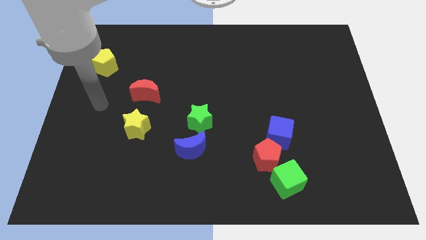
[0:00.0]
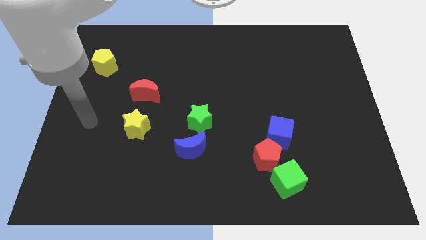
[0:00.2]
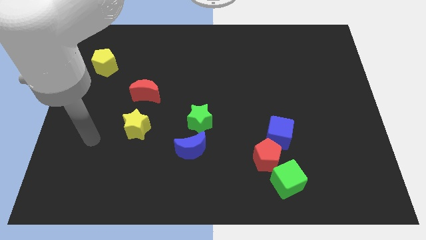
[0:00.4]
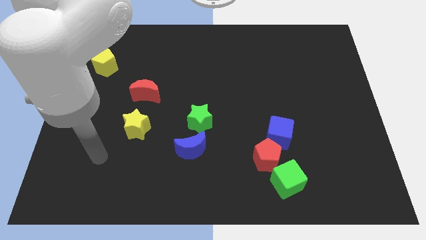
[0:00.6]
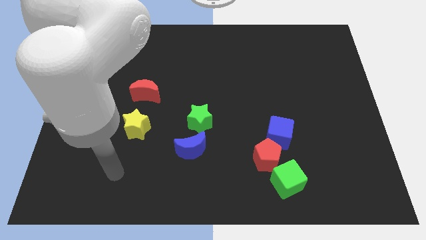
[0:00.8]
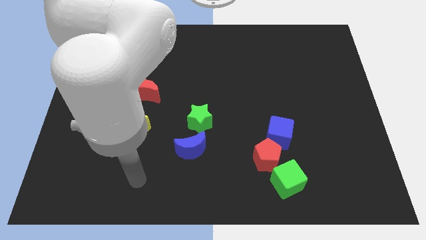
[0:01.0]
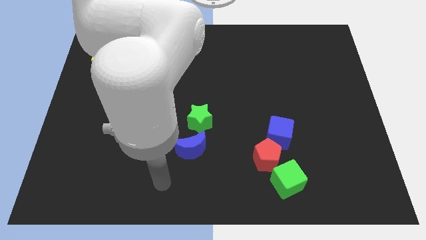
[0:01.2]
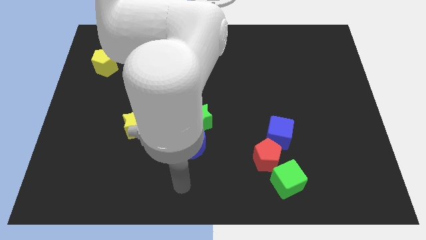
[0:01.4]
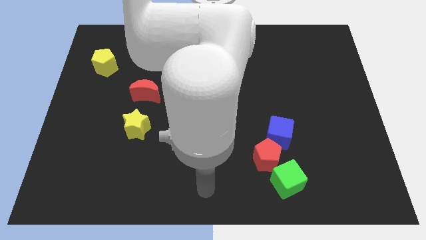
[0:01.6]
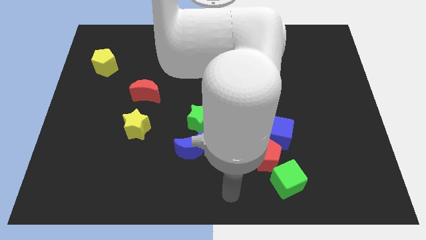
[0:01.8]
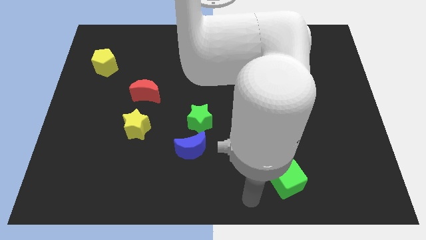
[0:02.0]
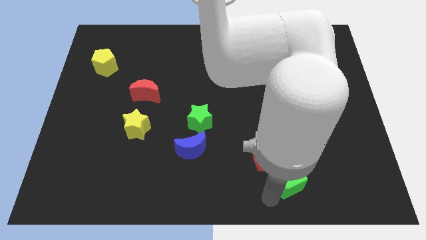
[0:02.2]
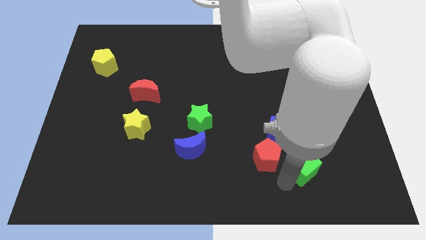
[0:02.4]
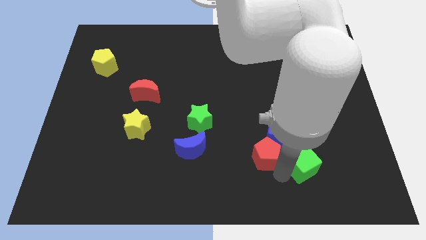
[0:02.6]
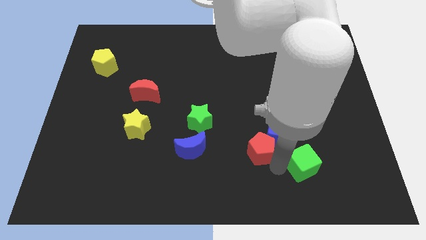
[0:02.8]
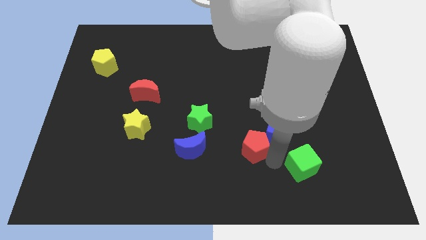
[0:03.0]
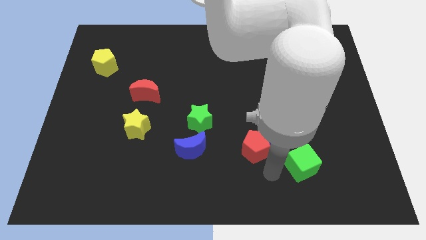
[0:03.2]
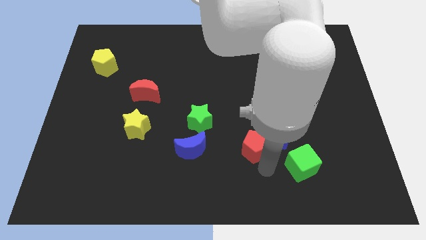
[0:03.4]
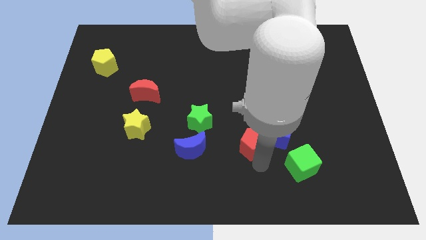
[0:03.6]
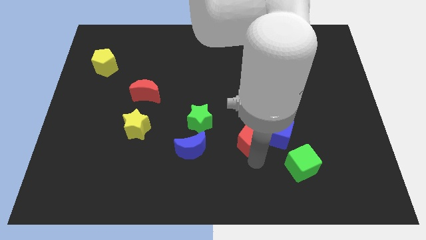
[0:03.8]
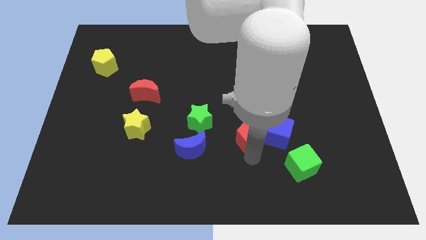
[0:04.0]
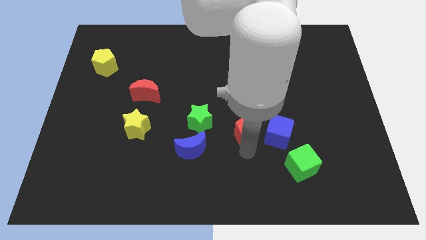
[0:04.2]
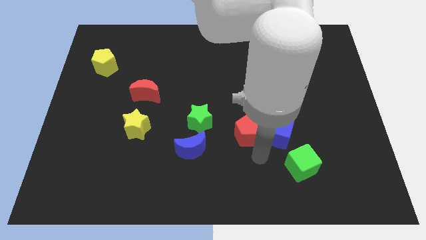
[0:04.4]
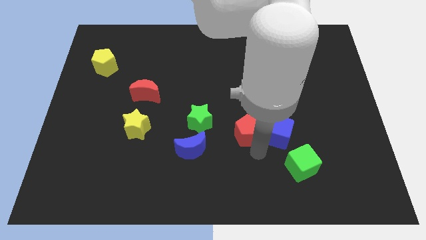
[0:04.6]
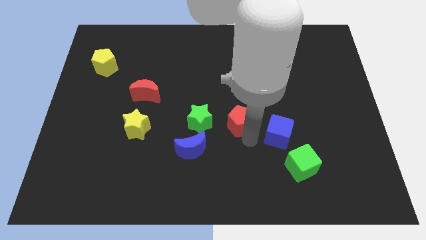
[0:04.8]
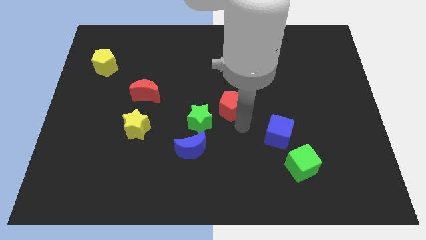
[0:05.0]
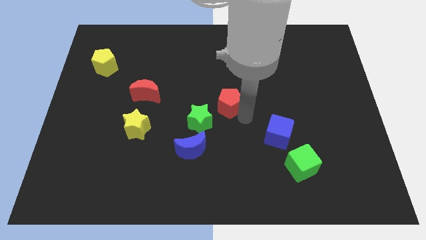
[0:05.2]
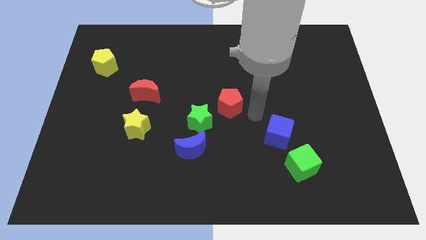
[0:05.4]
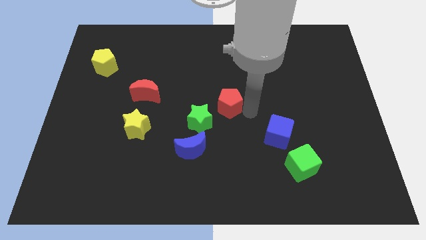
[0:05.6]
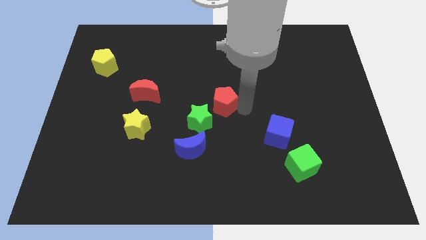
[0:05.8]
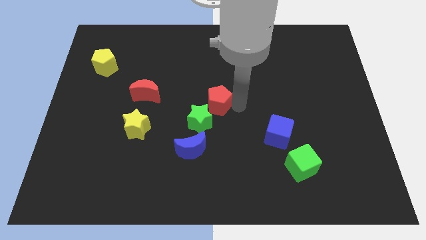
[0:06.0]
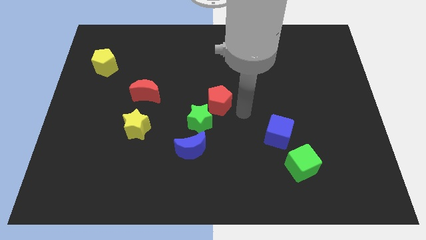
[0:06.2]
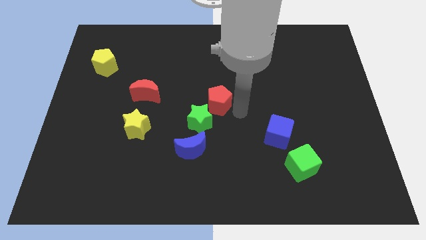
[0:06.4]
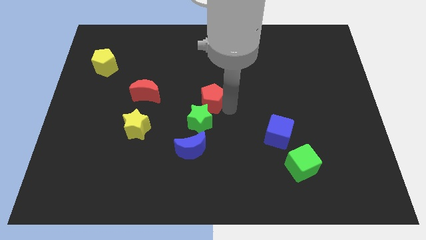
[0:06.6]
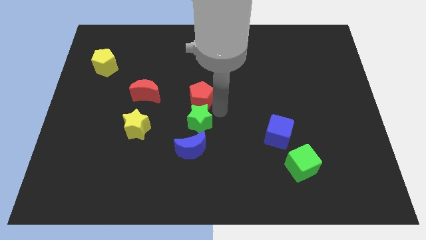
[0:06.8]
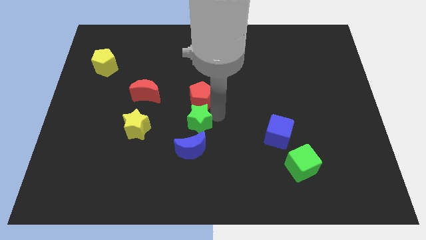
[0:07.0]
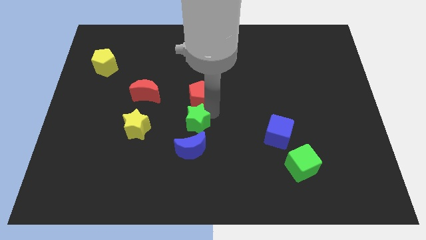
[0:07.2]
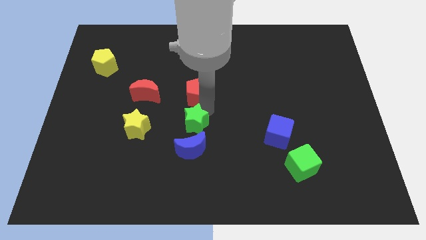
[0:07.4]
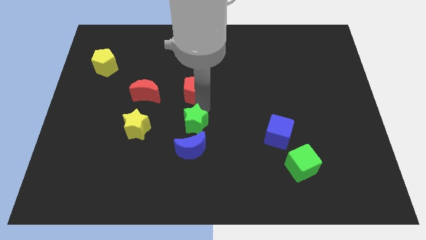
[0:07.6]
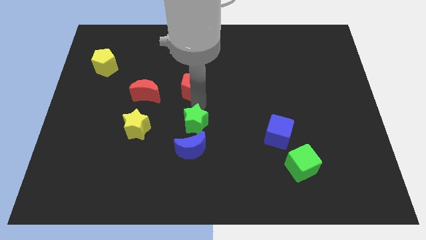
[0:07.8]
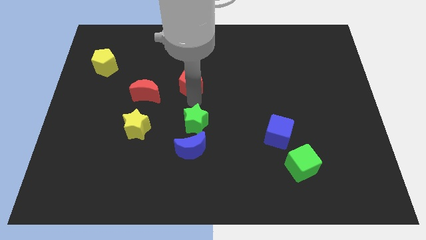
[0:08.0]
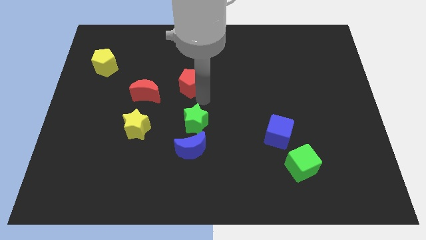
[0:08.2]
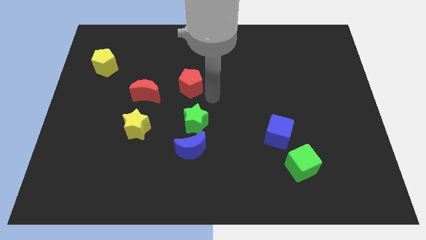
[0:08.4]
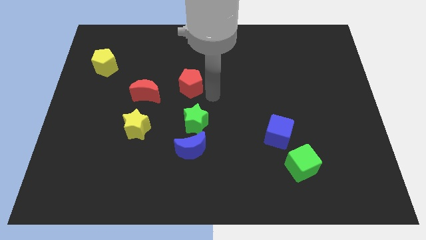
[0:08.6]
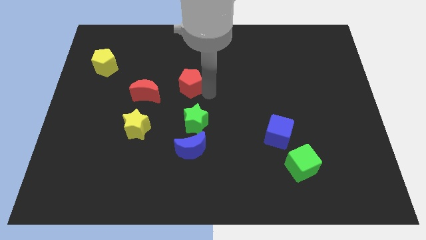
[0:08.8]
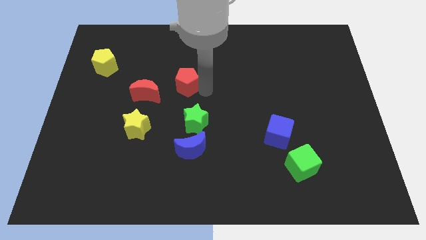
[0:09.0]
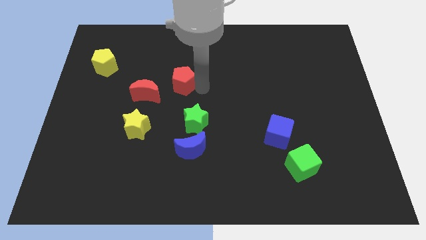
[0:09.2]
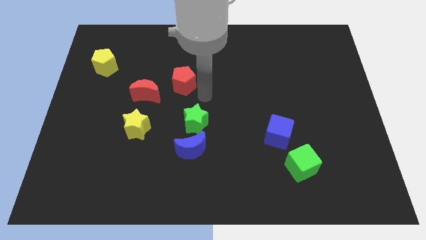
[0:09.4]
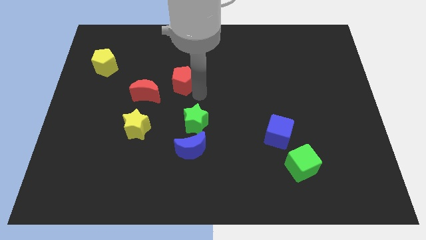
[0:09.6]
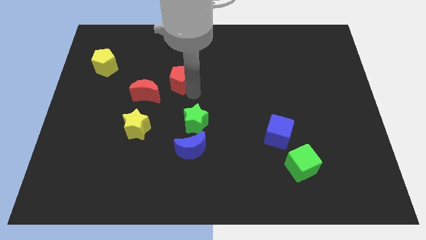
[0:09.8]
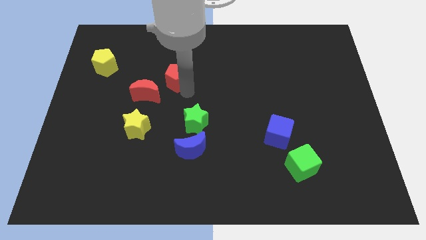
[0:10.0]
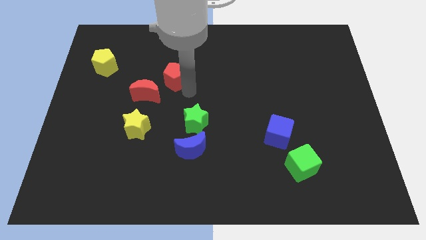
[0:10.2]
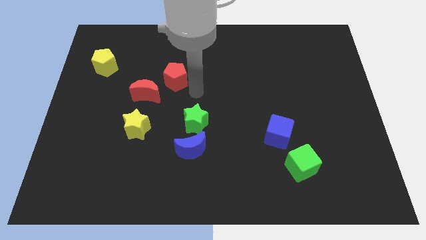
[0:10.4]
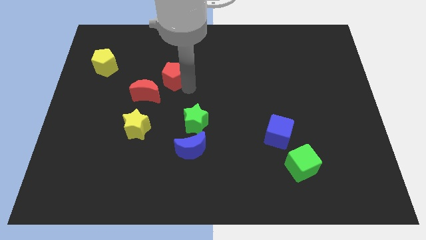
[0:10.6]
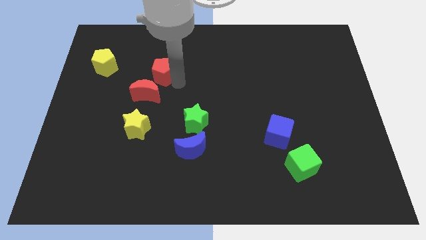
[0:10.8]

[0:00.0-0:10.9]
slide the red pentagon to the top side of the red moon

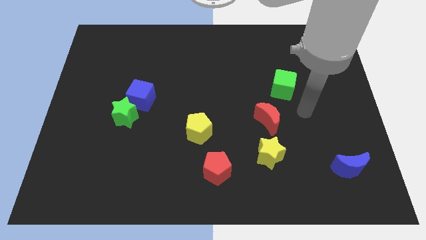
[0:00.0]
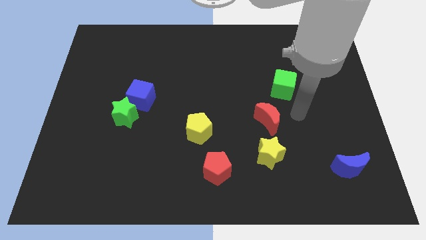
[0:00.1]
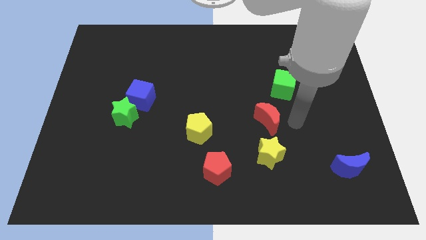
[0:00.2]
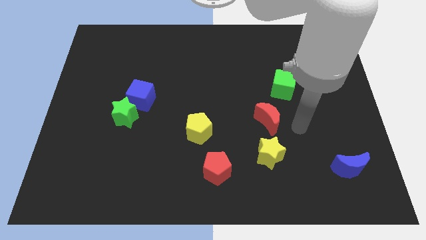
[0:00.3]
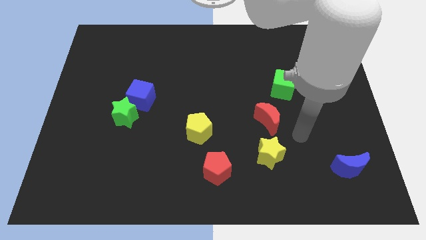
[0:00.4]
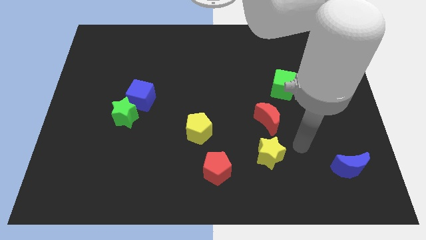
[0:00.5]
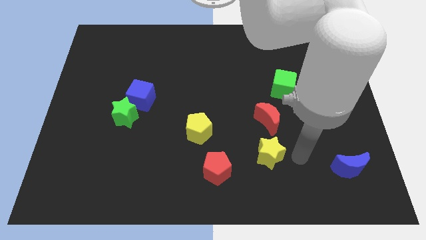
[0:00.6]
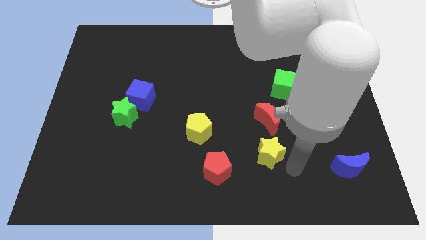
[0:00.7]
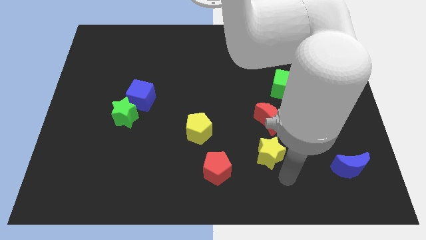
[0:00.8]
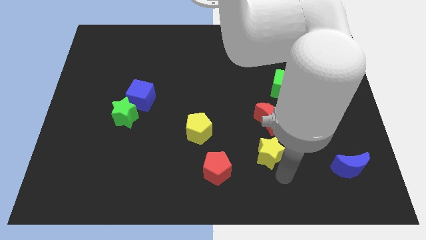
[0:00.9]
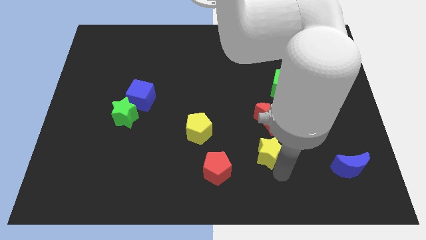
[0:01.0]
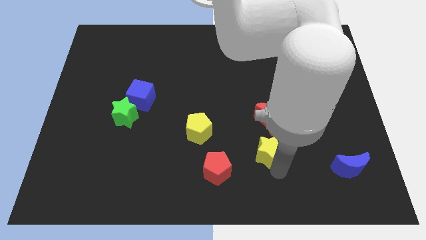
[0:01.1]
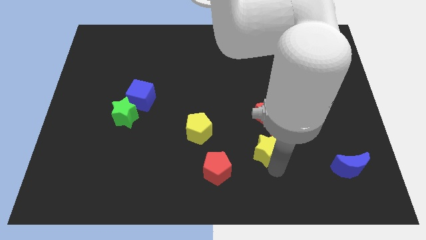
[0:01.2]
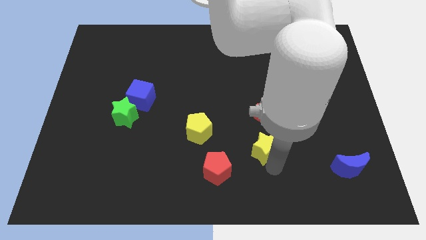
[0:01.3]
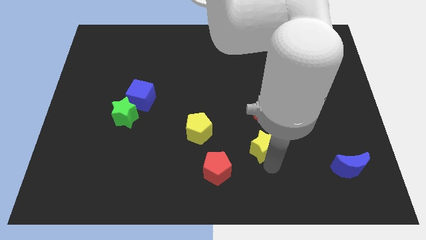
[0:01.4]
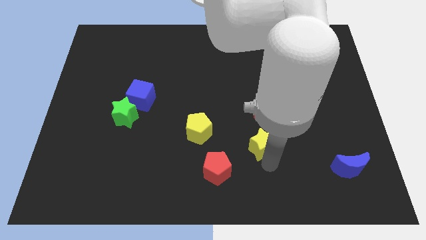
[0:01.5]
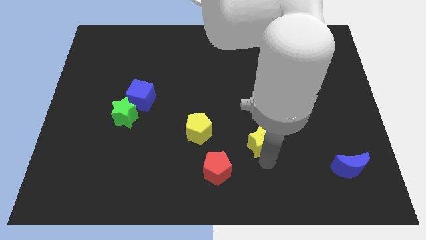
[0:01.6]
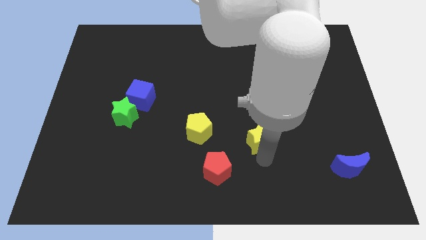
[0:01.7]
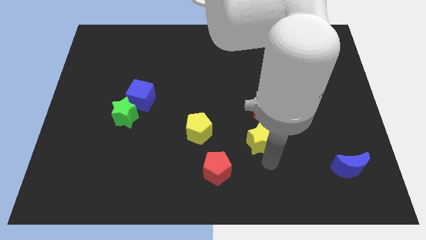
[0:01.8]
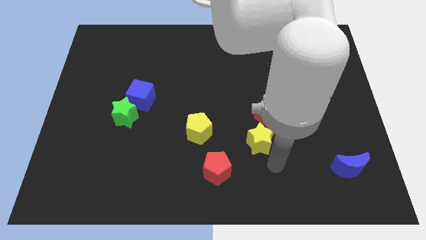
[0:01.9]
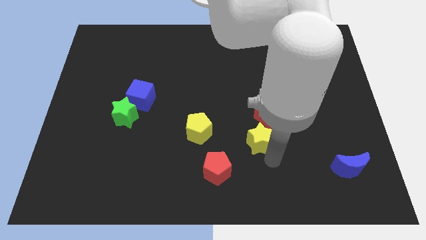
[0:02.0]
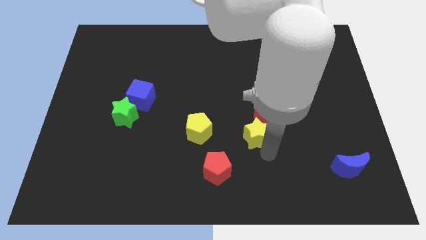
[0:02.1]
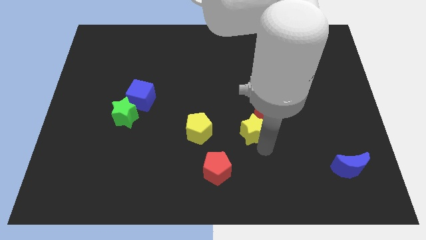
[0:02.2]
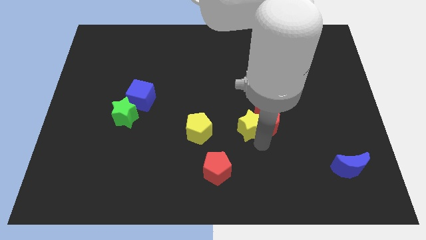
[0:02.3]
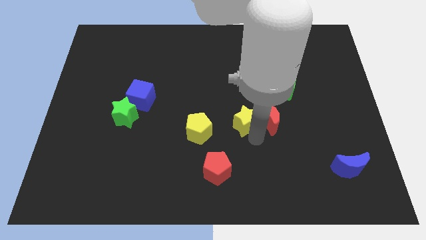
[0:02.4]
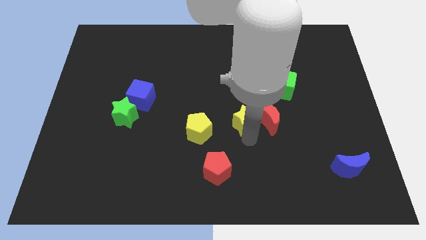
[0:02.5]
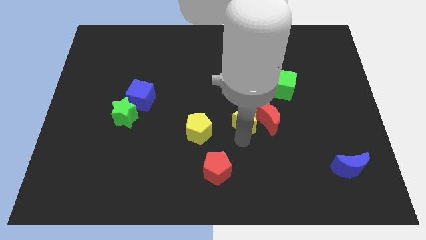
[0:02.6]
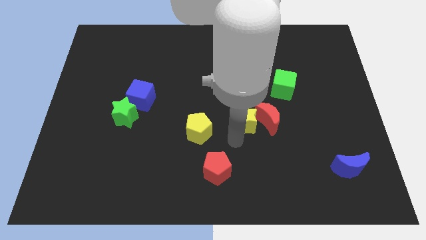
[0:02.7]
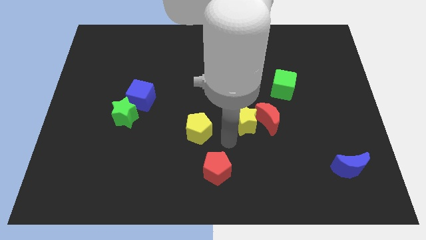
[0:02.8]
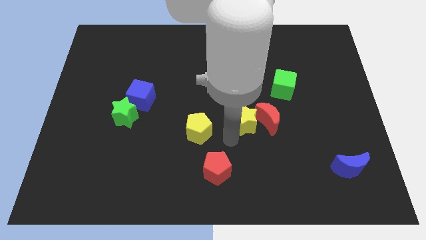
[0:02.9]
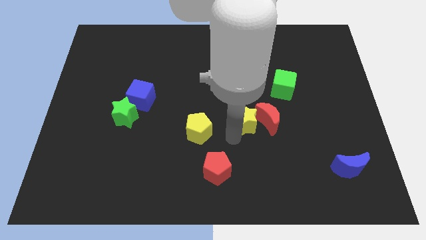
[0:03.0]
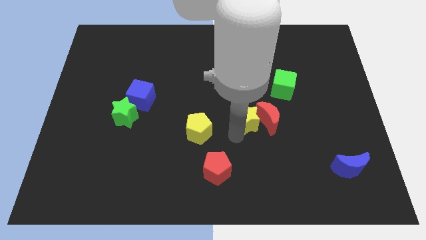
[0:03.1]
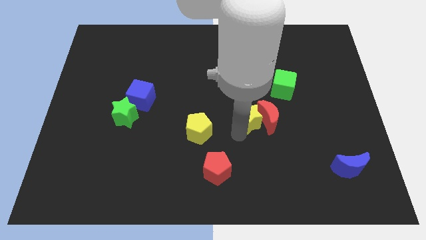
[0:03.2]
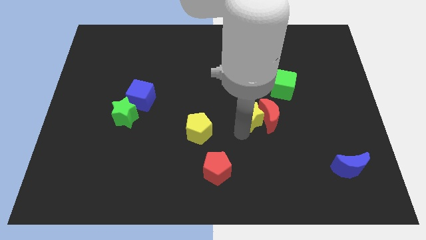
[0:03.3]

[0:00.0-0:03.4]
put the yellow star to the bottom left side of the green cube
